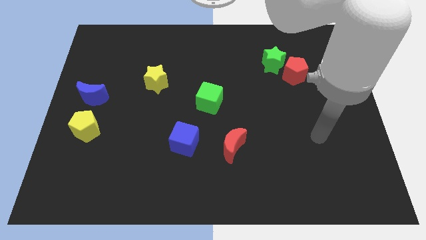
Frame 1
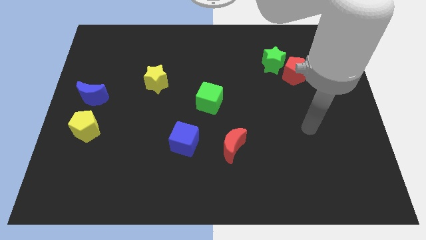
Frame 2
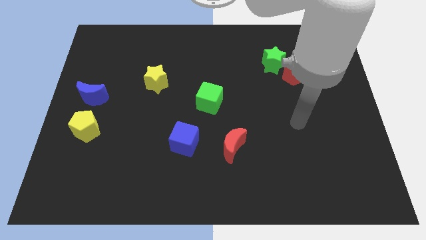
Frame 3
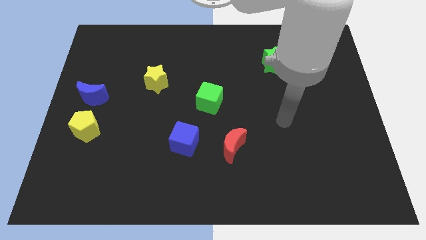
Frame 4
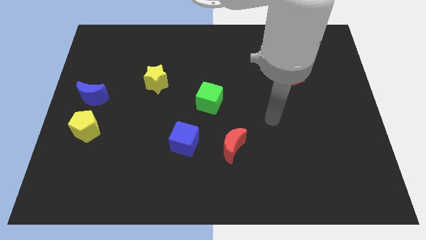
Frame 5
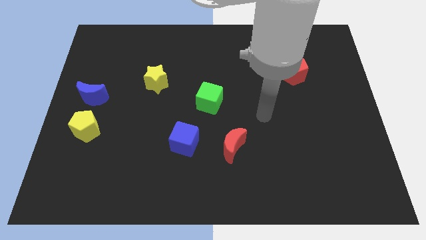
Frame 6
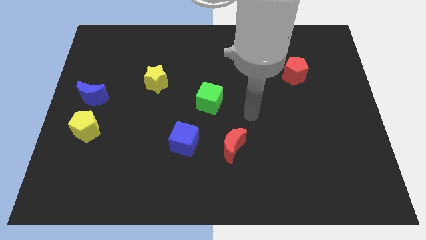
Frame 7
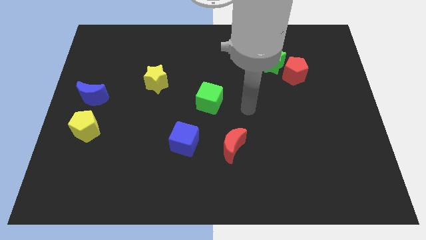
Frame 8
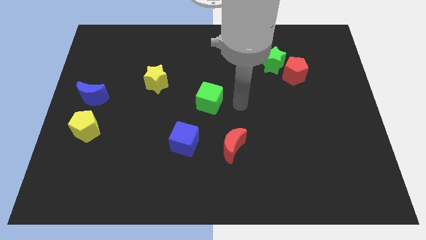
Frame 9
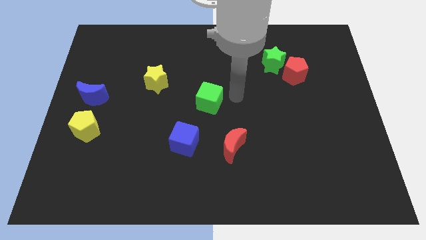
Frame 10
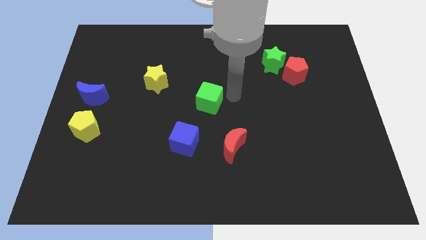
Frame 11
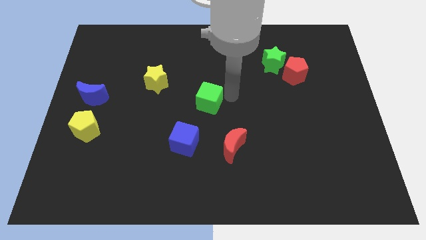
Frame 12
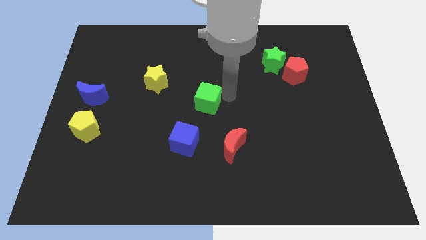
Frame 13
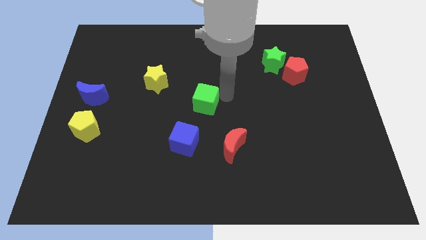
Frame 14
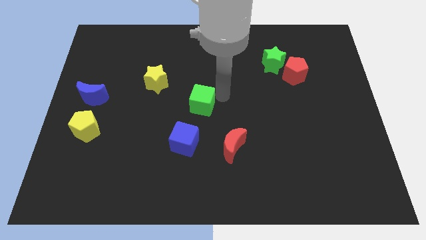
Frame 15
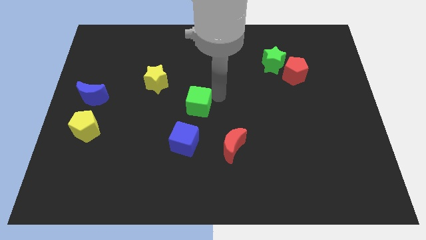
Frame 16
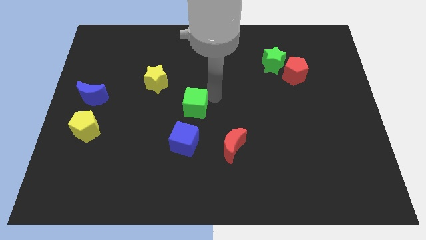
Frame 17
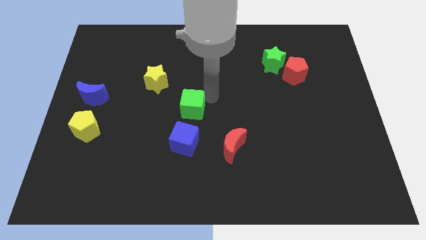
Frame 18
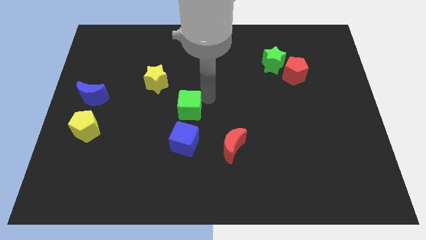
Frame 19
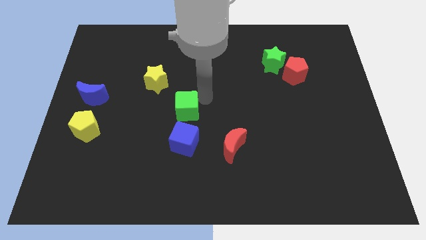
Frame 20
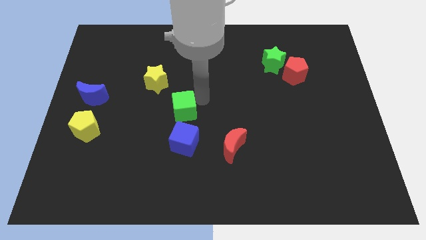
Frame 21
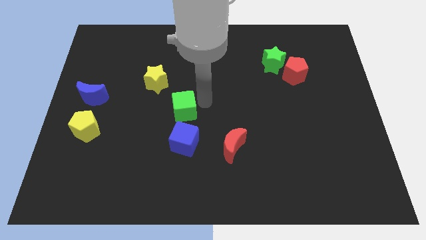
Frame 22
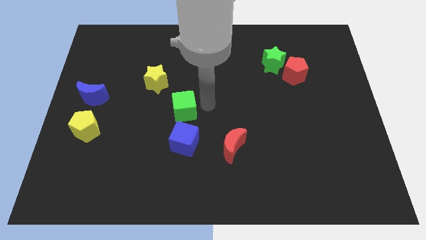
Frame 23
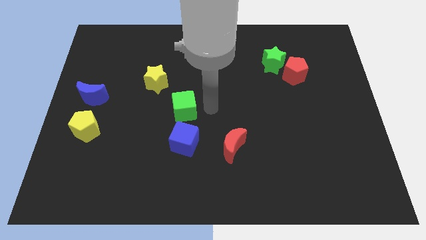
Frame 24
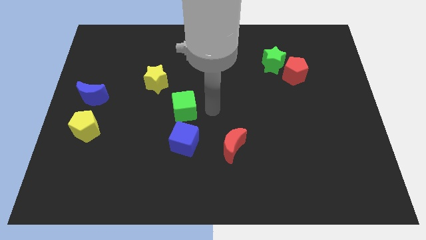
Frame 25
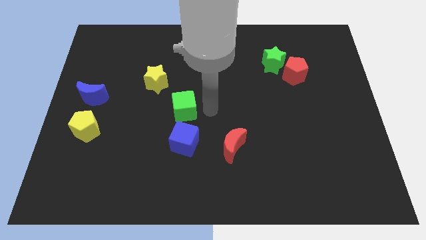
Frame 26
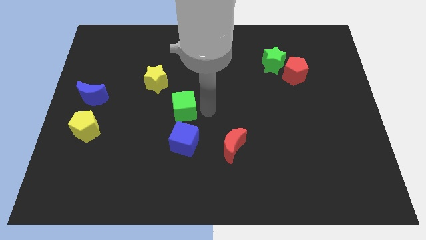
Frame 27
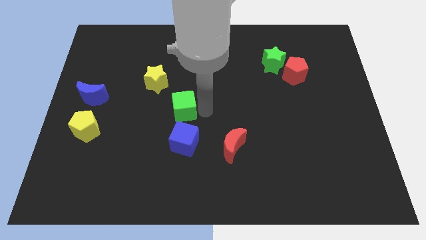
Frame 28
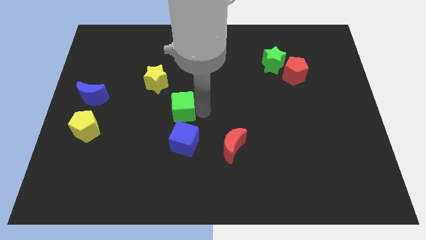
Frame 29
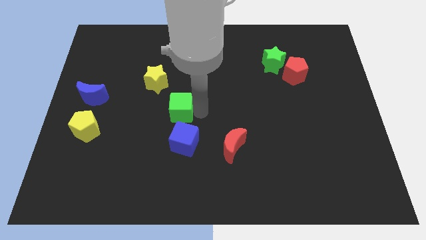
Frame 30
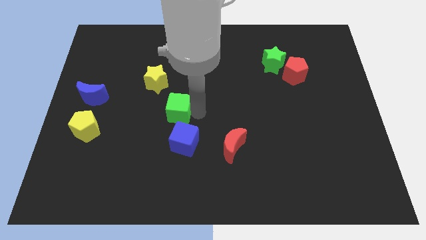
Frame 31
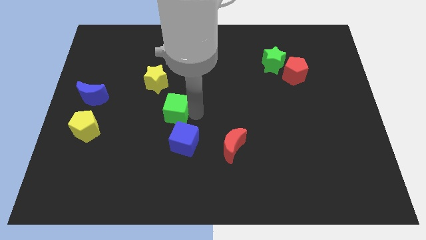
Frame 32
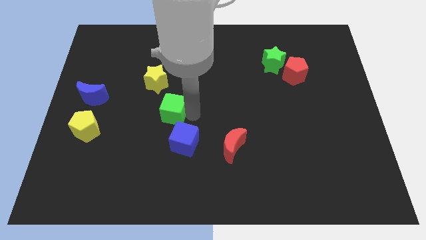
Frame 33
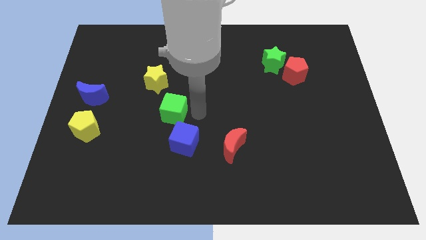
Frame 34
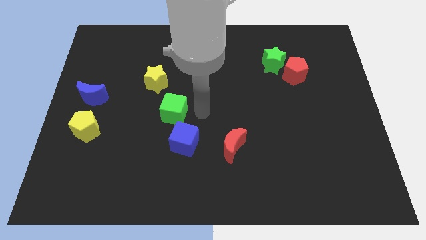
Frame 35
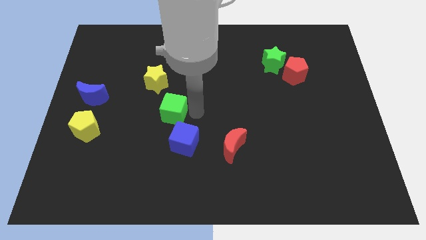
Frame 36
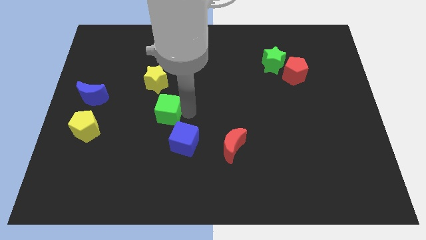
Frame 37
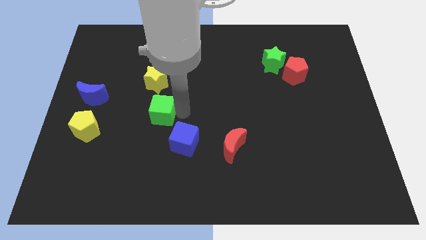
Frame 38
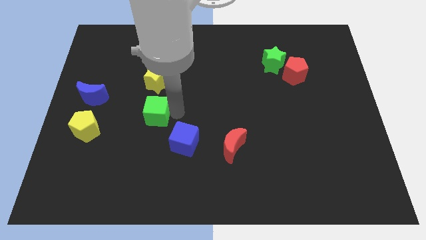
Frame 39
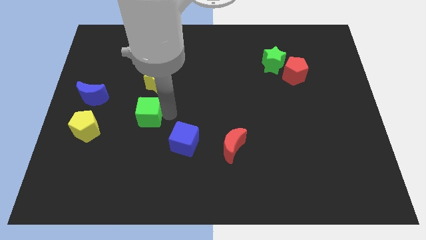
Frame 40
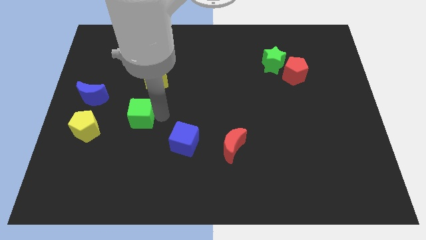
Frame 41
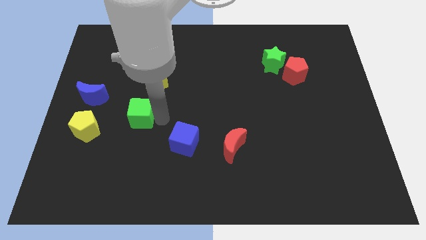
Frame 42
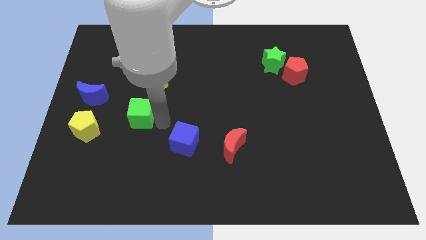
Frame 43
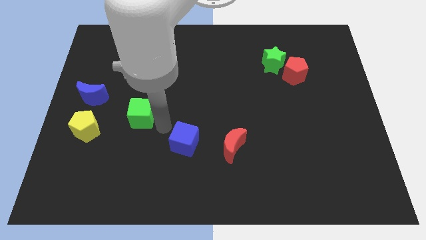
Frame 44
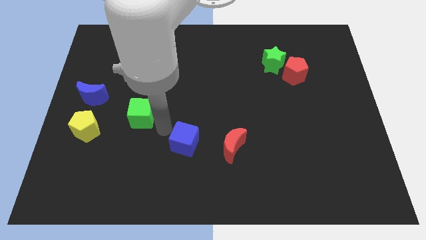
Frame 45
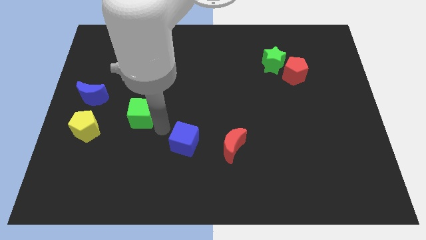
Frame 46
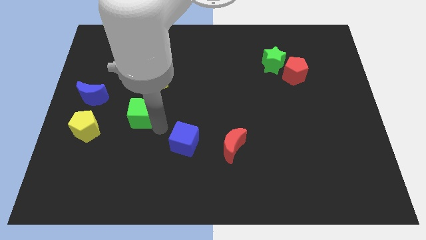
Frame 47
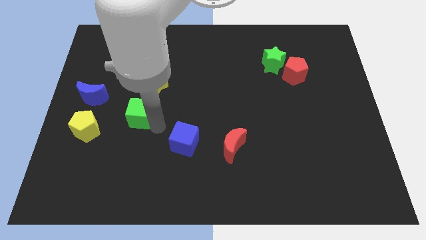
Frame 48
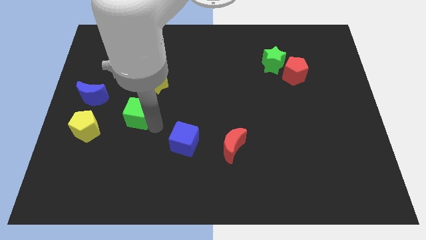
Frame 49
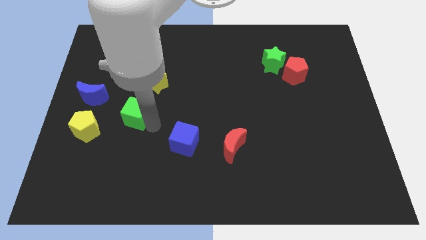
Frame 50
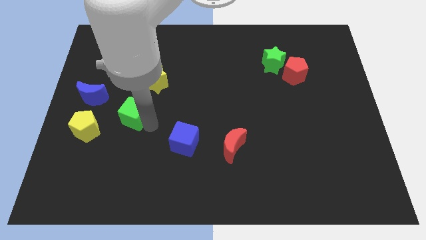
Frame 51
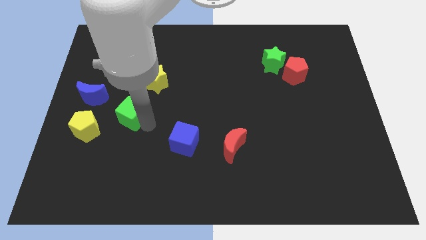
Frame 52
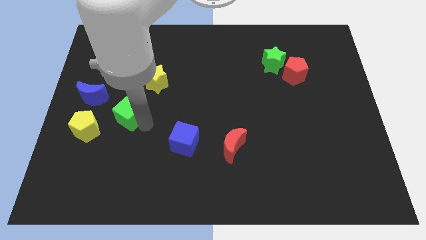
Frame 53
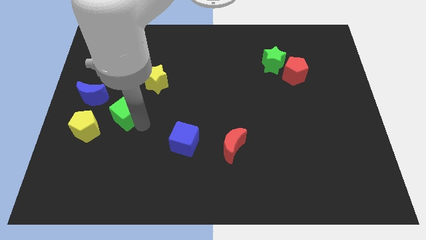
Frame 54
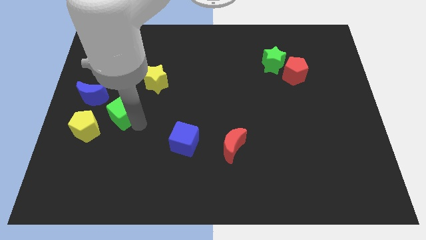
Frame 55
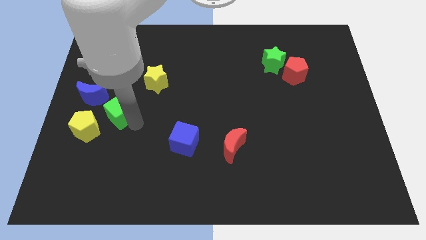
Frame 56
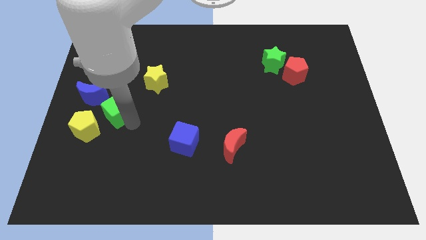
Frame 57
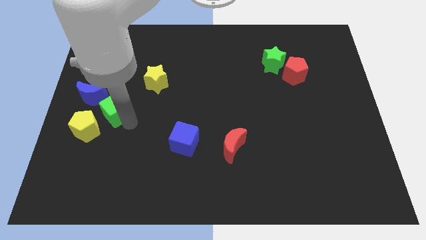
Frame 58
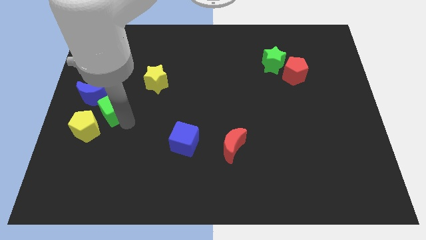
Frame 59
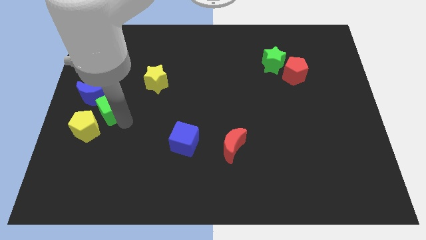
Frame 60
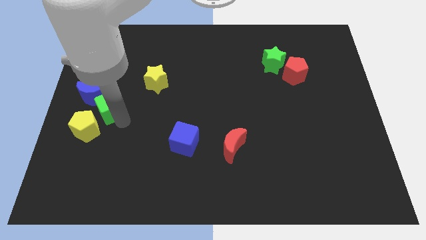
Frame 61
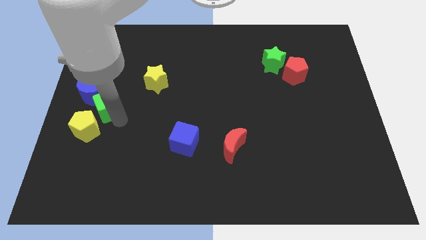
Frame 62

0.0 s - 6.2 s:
slide the green cube towards the blue moon

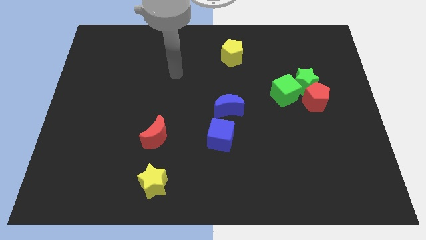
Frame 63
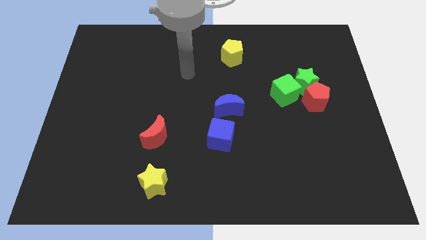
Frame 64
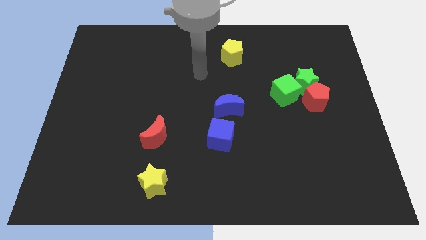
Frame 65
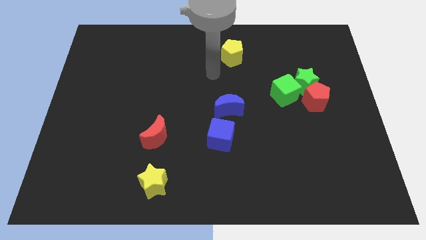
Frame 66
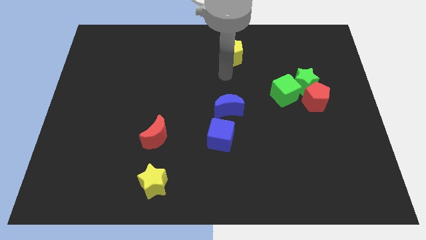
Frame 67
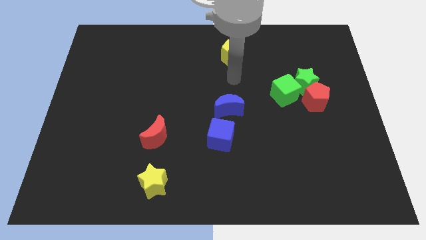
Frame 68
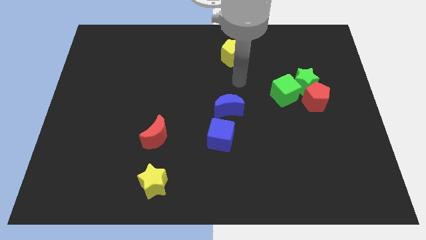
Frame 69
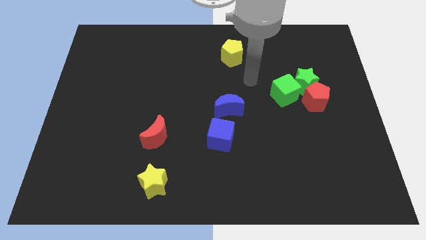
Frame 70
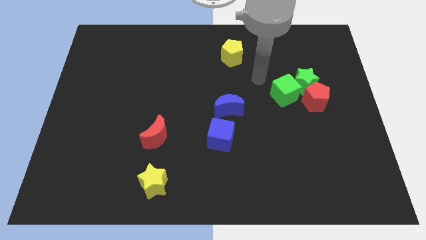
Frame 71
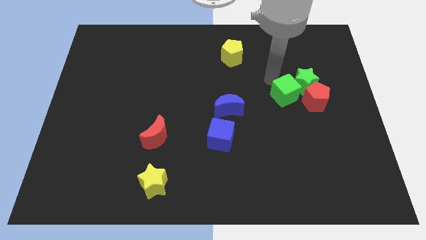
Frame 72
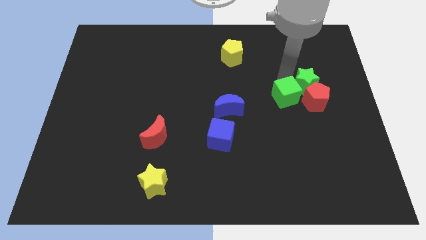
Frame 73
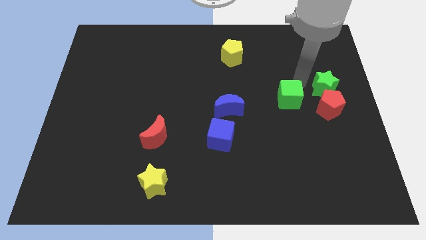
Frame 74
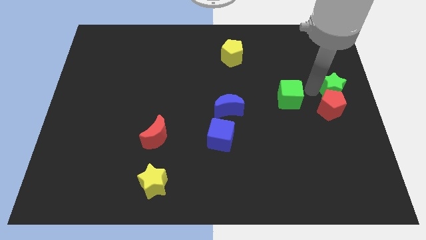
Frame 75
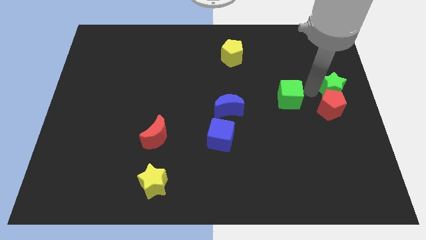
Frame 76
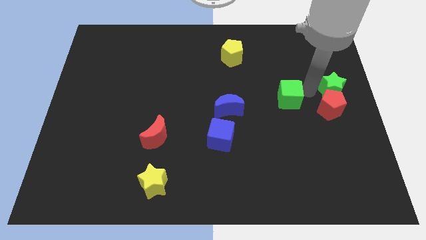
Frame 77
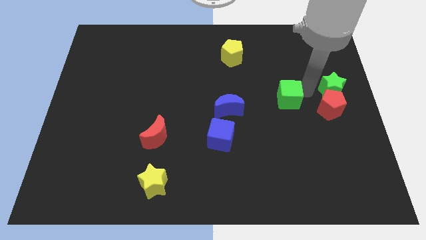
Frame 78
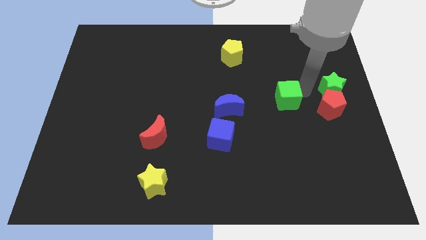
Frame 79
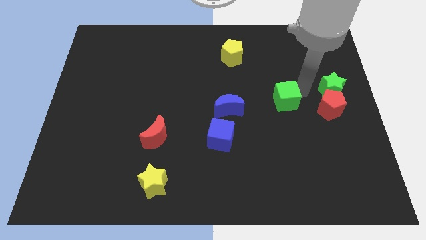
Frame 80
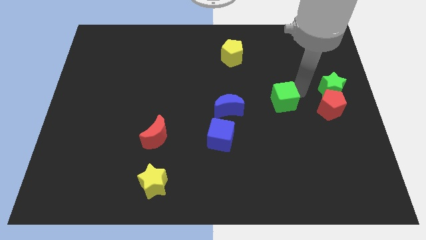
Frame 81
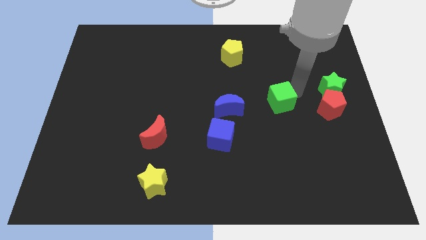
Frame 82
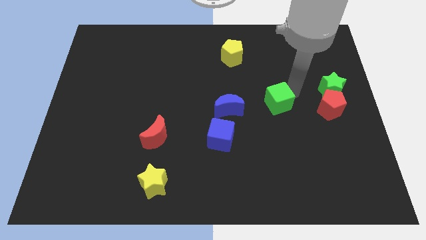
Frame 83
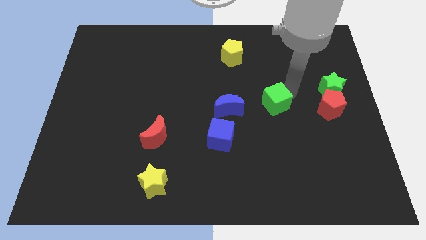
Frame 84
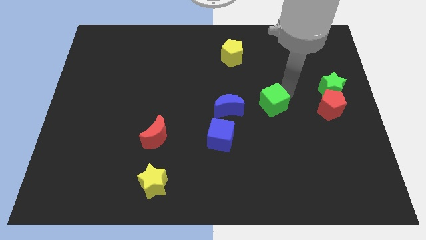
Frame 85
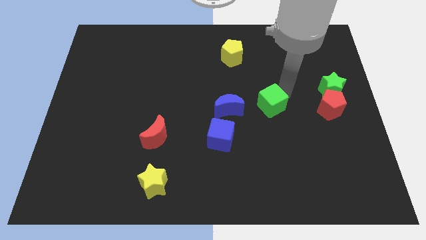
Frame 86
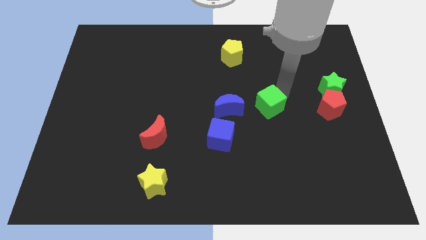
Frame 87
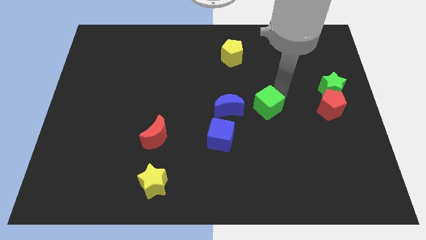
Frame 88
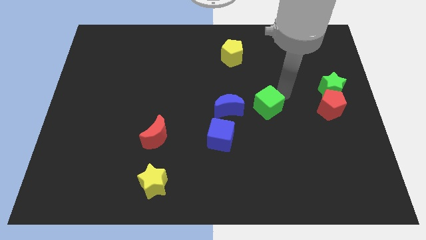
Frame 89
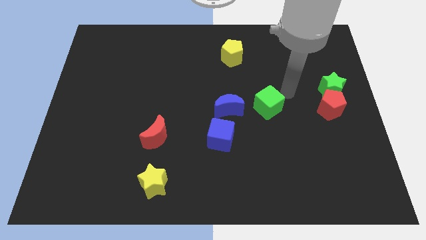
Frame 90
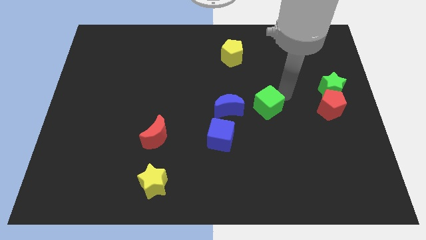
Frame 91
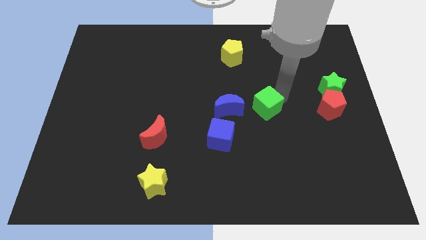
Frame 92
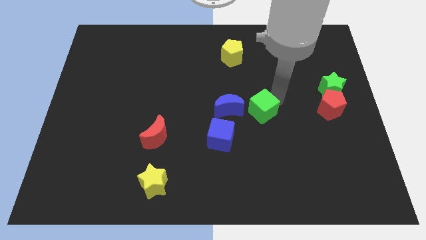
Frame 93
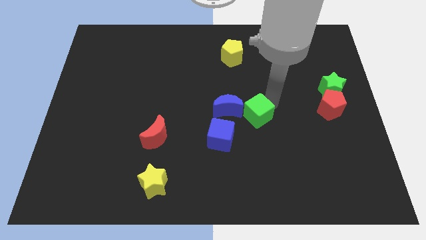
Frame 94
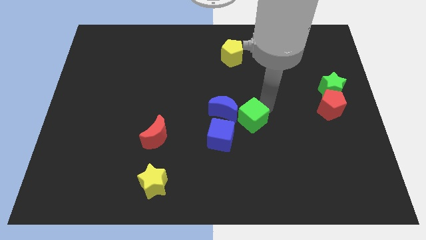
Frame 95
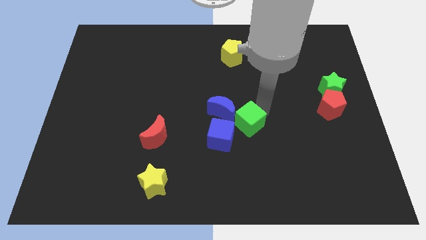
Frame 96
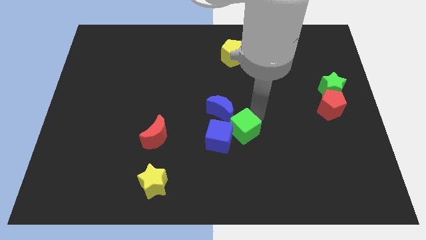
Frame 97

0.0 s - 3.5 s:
slide the green cube towards the blue cube
